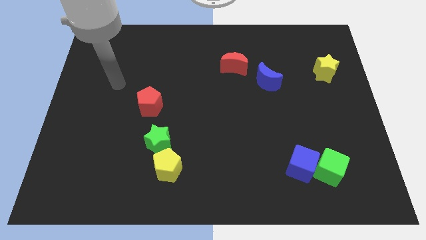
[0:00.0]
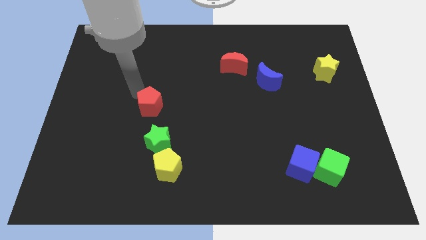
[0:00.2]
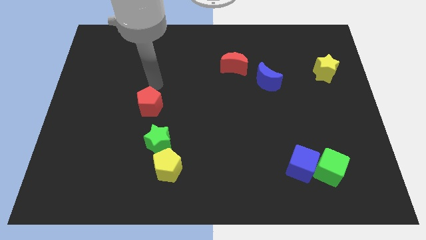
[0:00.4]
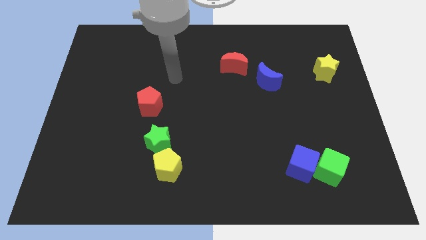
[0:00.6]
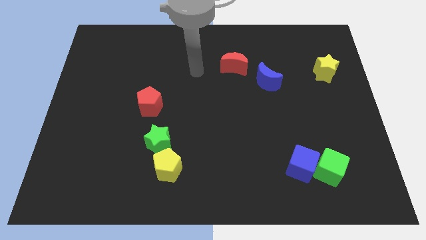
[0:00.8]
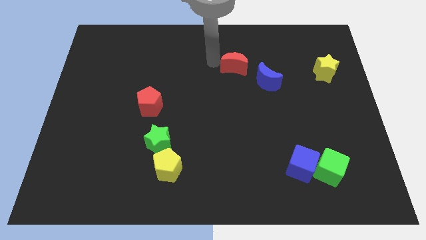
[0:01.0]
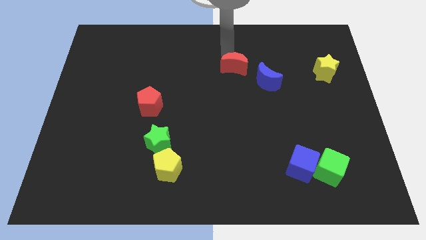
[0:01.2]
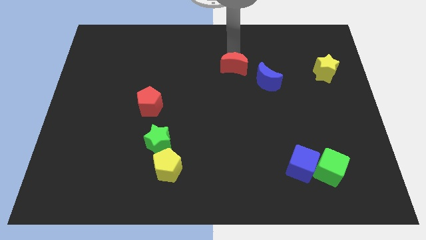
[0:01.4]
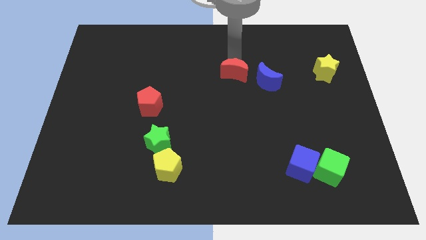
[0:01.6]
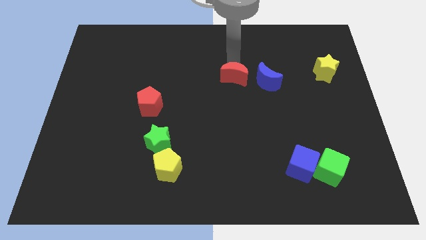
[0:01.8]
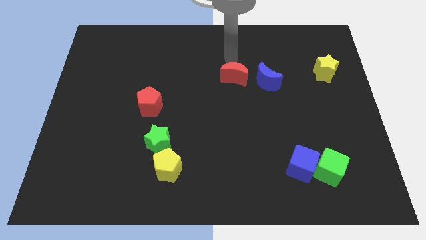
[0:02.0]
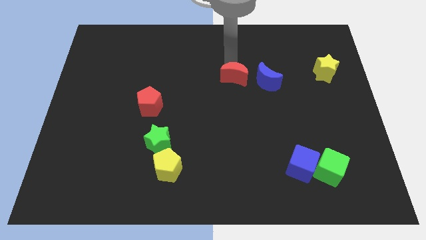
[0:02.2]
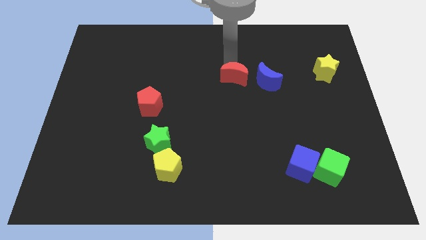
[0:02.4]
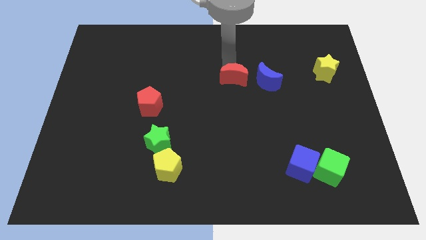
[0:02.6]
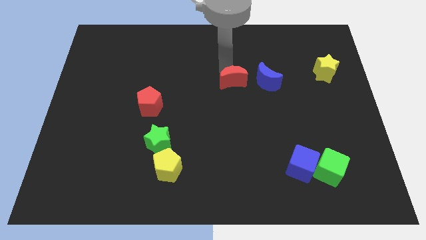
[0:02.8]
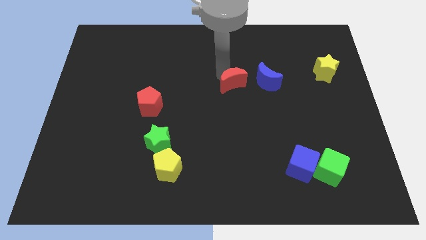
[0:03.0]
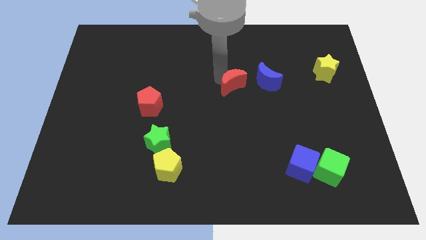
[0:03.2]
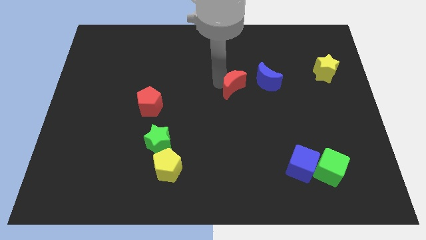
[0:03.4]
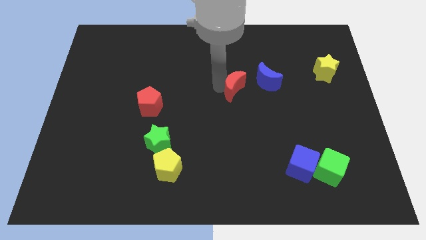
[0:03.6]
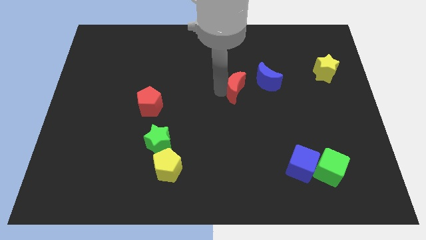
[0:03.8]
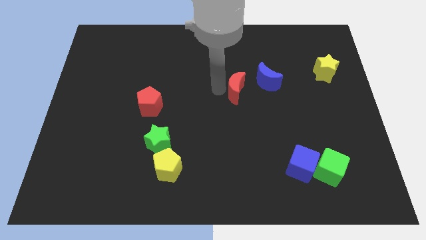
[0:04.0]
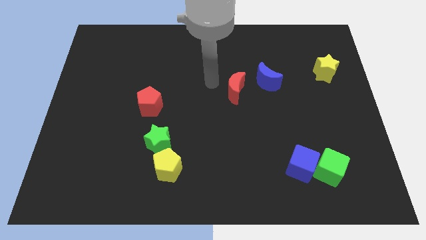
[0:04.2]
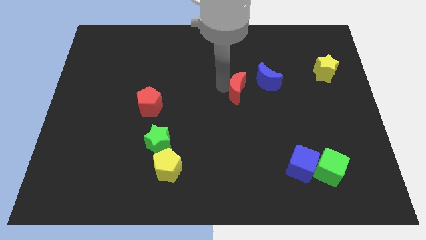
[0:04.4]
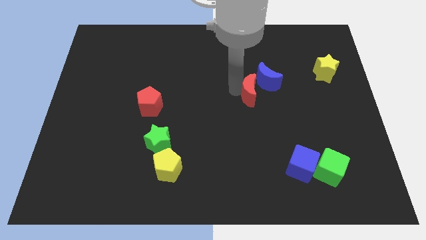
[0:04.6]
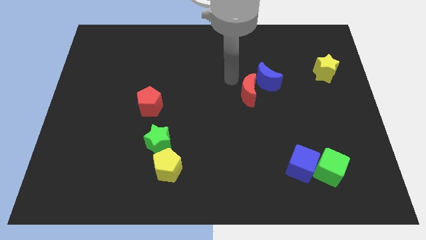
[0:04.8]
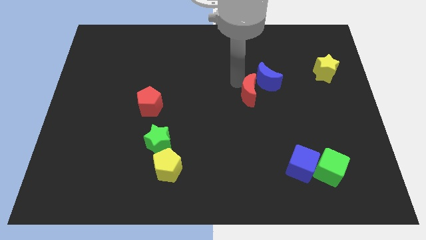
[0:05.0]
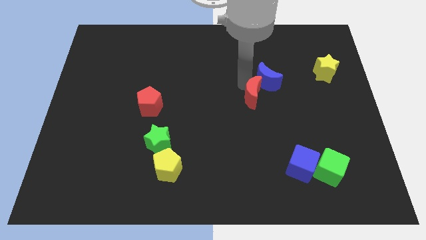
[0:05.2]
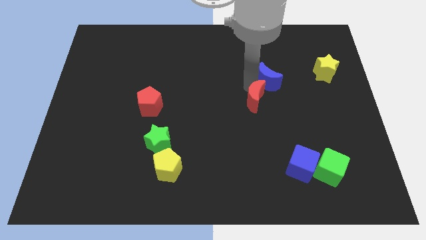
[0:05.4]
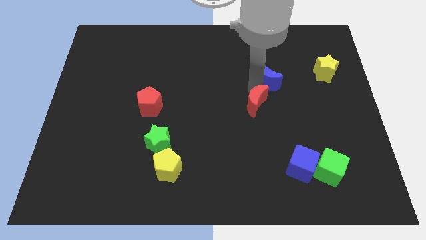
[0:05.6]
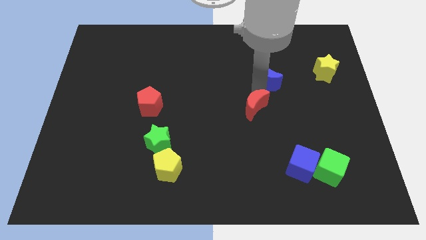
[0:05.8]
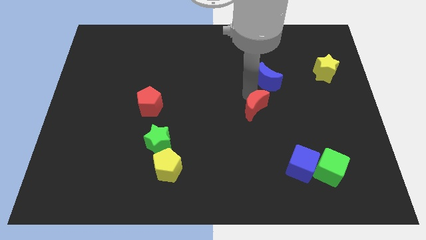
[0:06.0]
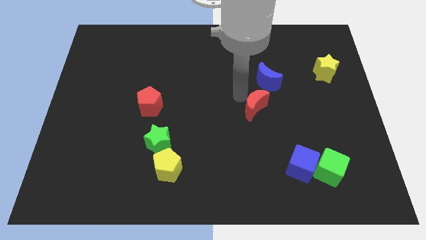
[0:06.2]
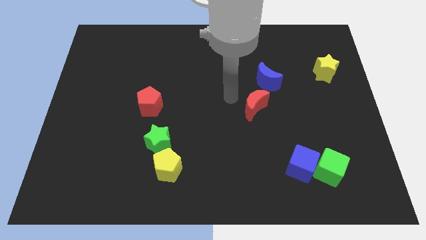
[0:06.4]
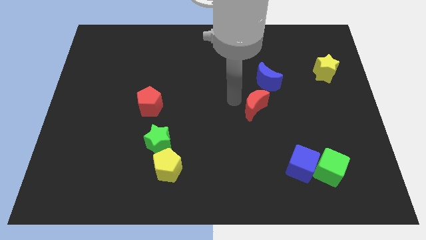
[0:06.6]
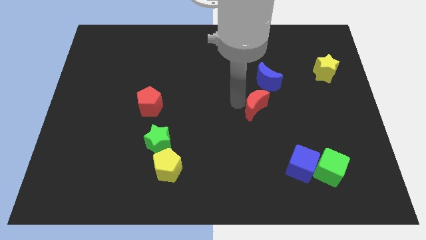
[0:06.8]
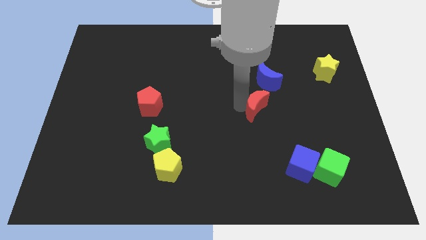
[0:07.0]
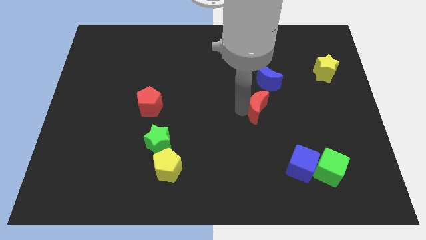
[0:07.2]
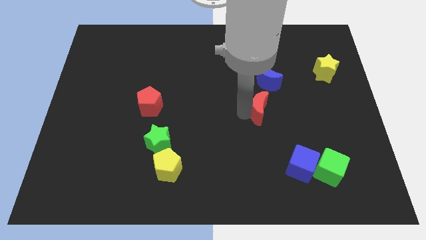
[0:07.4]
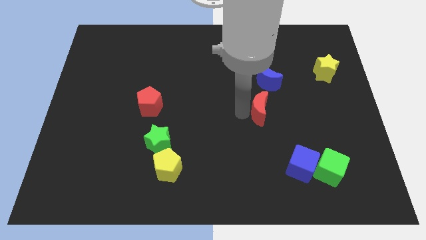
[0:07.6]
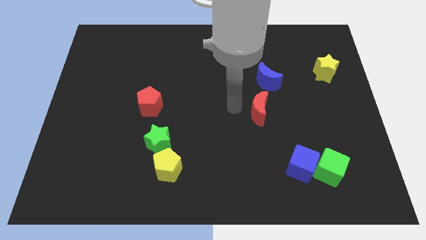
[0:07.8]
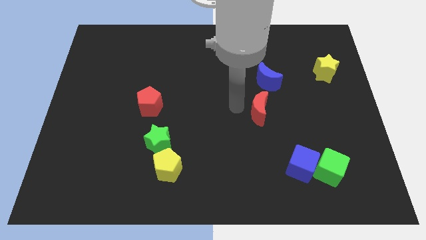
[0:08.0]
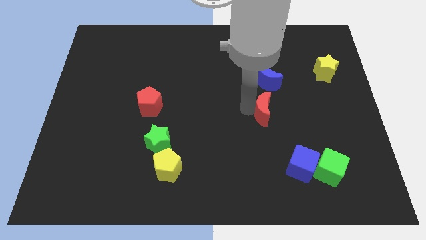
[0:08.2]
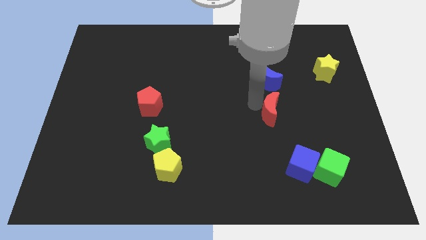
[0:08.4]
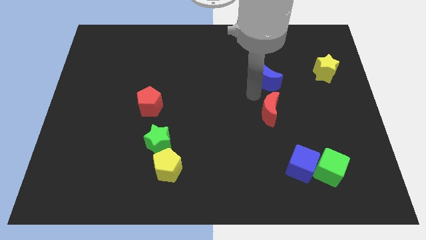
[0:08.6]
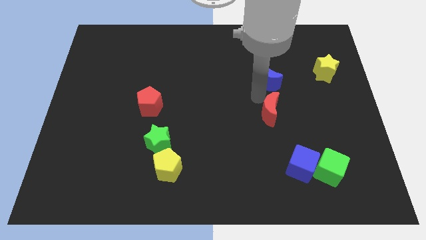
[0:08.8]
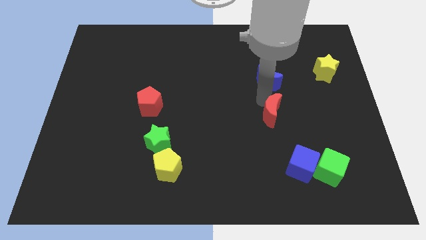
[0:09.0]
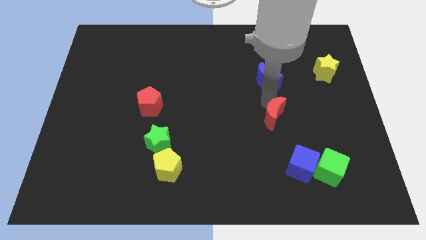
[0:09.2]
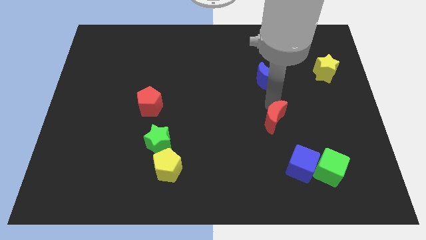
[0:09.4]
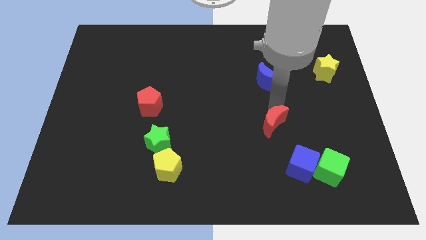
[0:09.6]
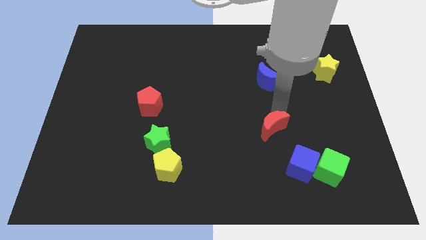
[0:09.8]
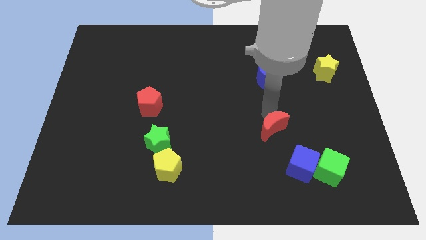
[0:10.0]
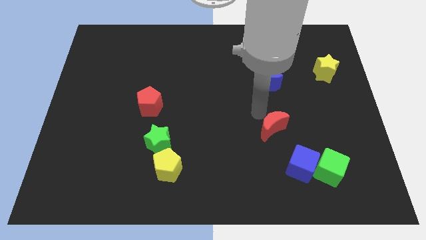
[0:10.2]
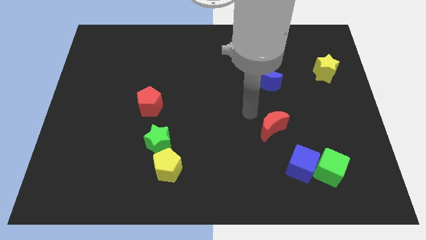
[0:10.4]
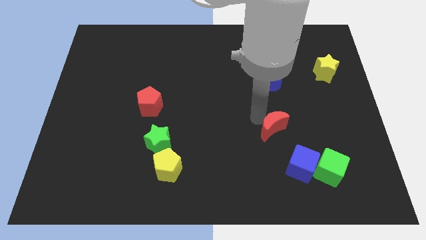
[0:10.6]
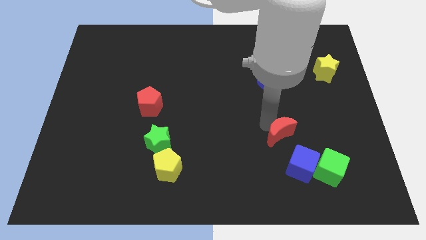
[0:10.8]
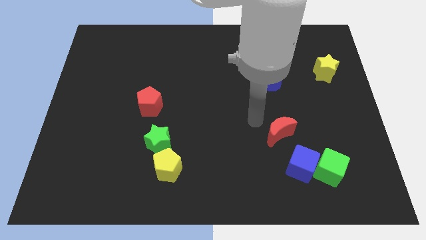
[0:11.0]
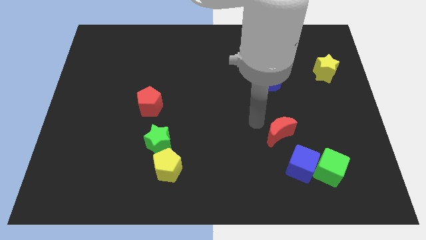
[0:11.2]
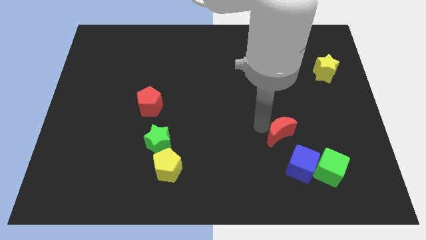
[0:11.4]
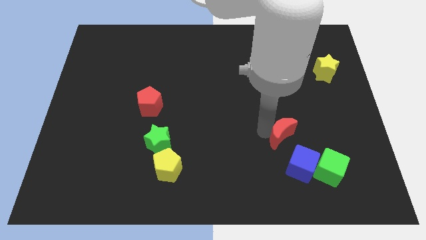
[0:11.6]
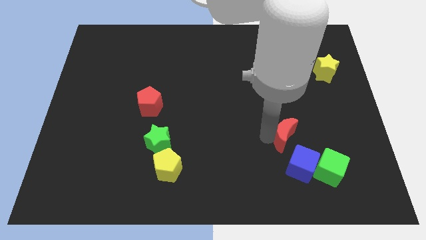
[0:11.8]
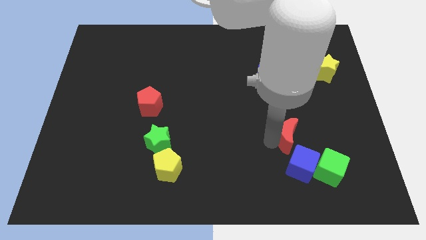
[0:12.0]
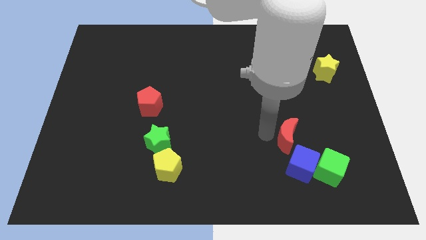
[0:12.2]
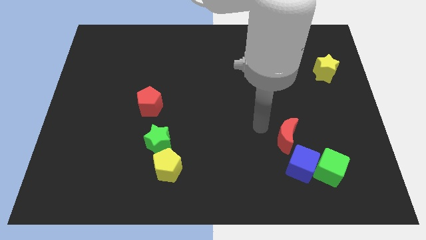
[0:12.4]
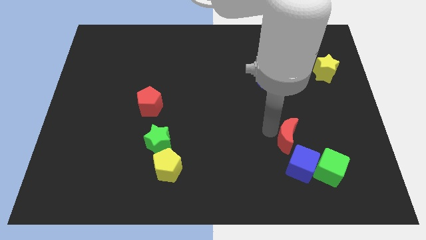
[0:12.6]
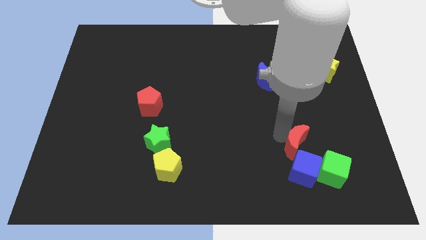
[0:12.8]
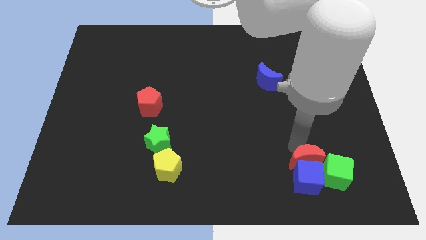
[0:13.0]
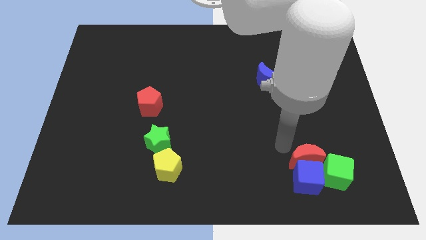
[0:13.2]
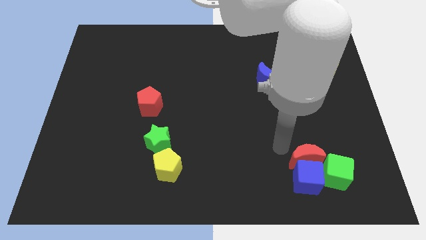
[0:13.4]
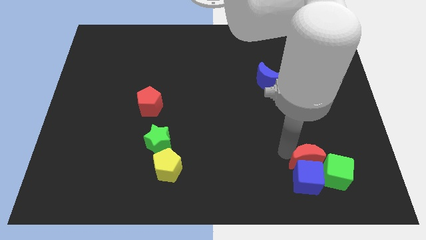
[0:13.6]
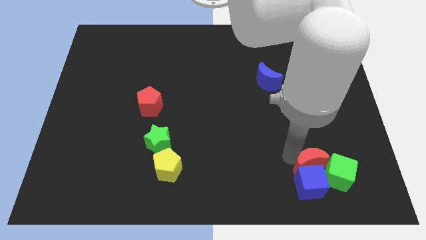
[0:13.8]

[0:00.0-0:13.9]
move the red moon to the green cube
